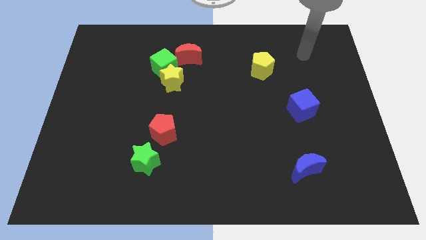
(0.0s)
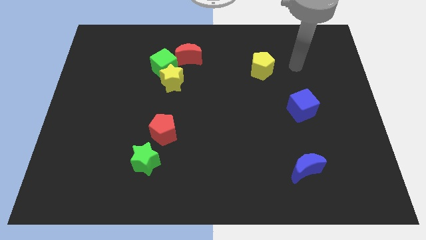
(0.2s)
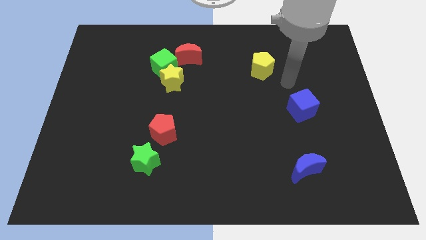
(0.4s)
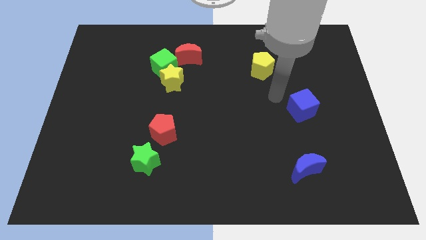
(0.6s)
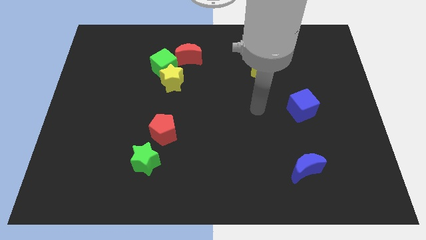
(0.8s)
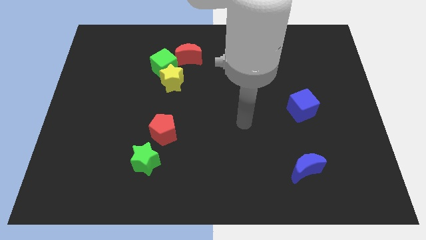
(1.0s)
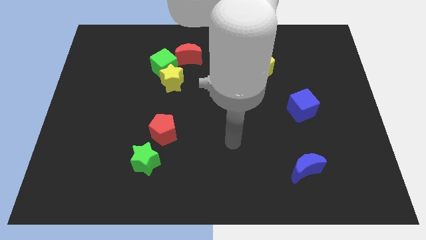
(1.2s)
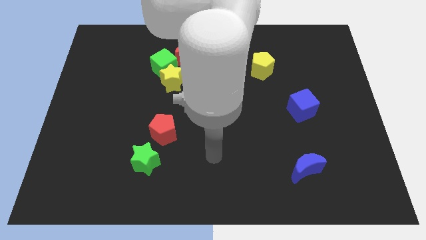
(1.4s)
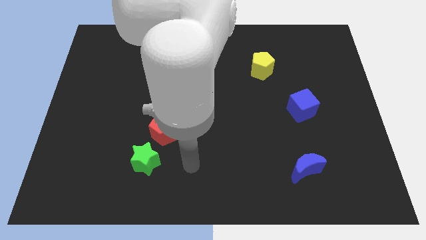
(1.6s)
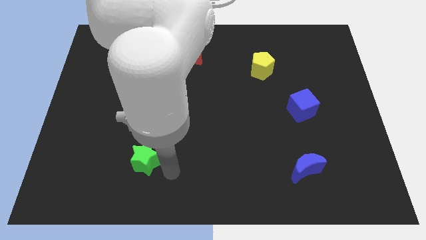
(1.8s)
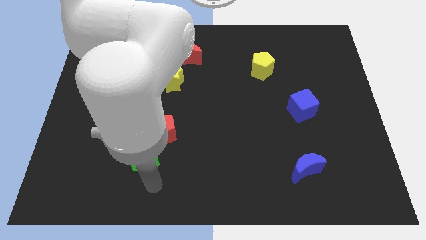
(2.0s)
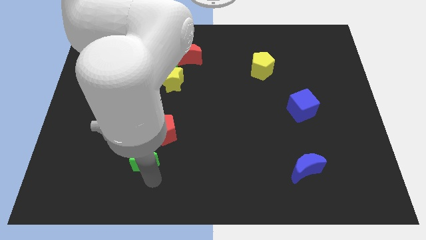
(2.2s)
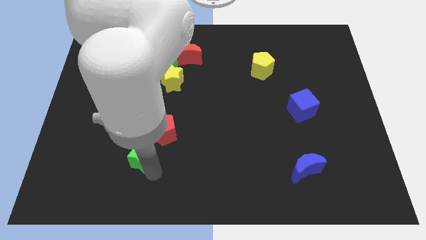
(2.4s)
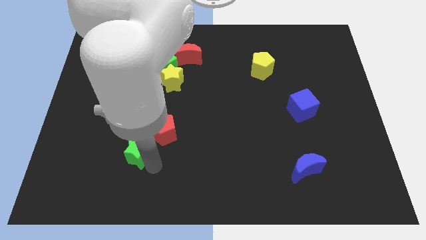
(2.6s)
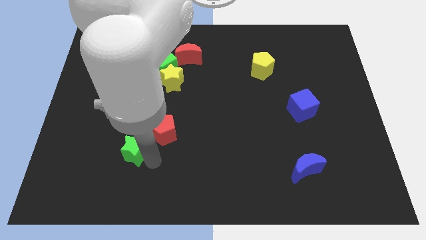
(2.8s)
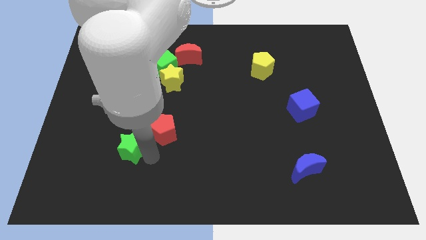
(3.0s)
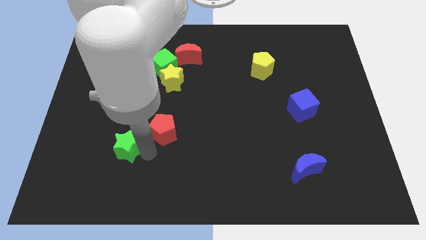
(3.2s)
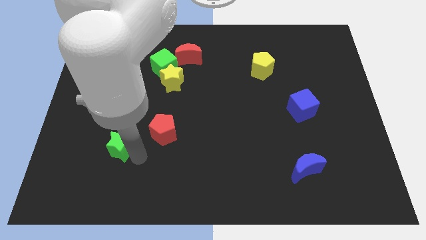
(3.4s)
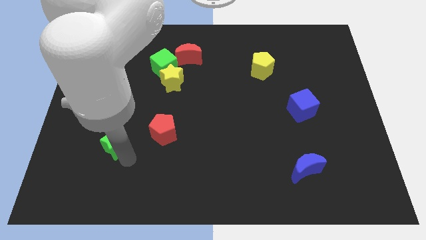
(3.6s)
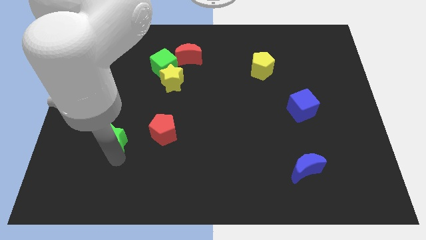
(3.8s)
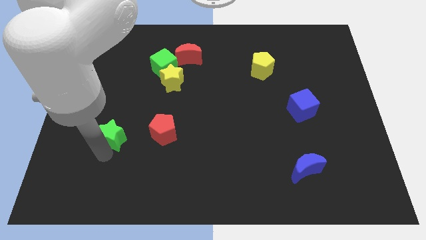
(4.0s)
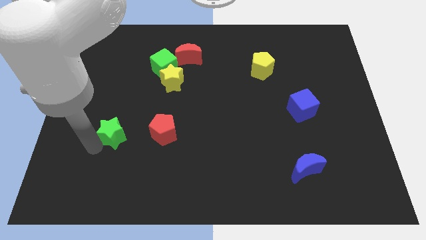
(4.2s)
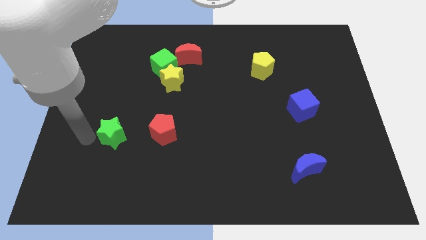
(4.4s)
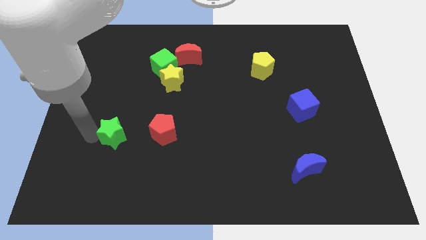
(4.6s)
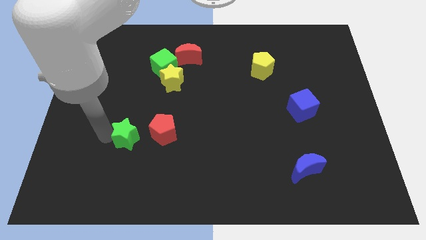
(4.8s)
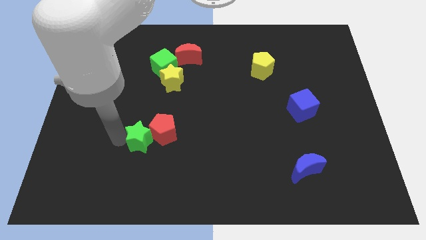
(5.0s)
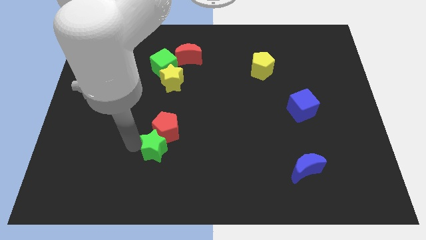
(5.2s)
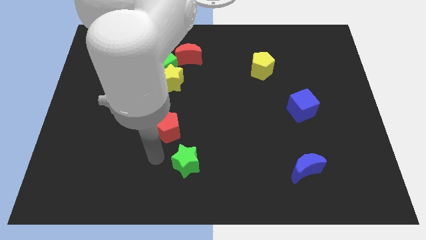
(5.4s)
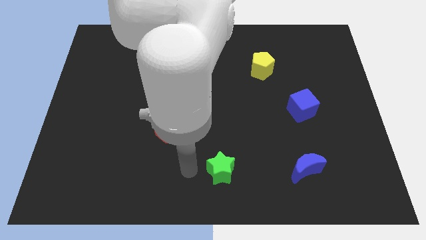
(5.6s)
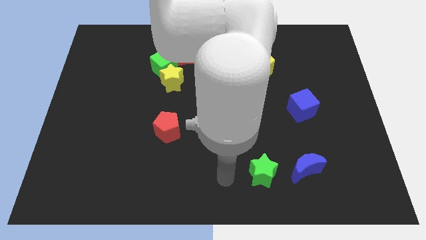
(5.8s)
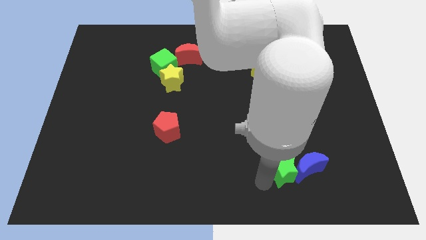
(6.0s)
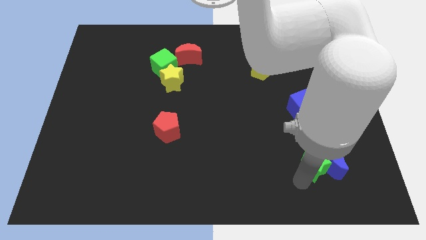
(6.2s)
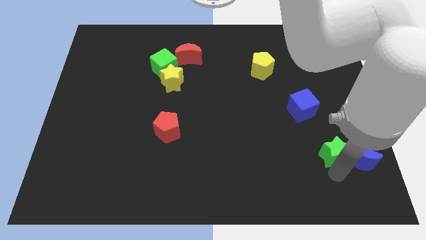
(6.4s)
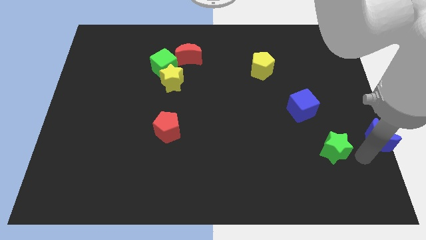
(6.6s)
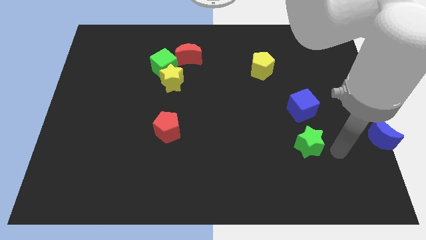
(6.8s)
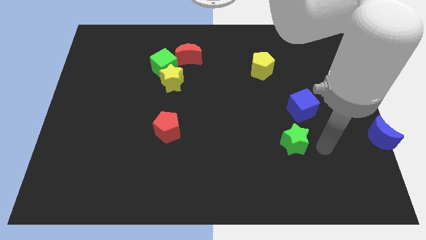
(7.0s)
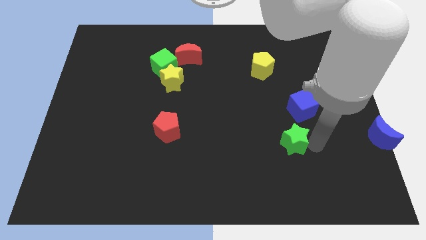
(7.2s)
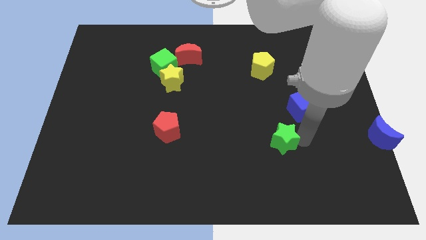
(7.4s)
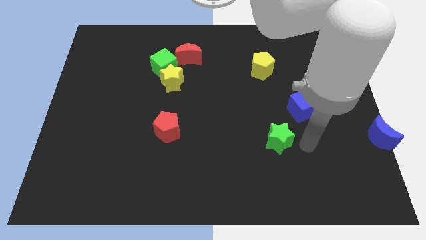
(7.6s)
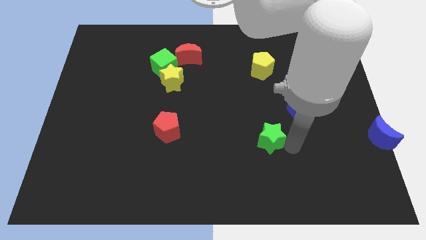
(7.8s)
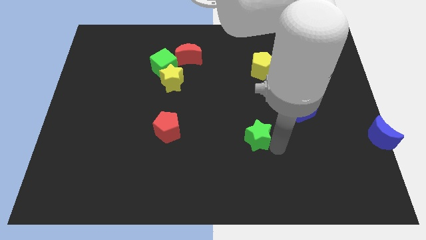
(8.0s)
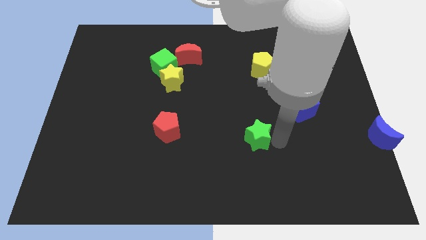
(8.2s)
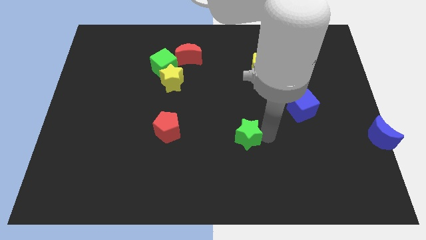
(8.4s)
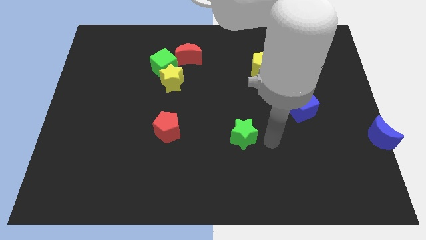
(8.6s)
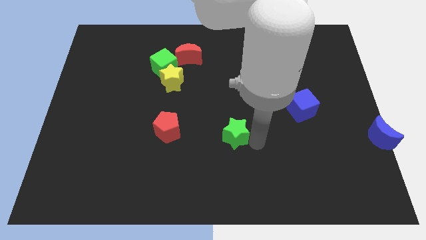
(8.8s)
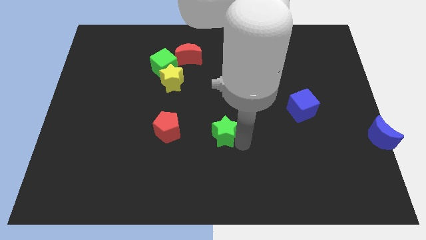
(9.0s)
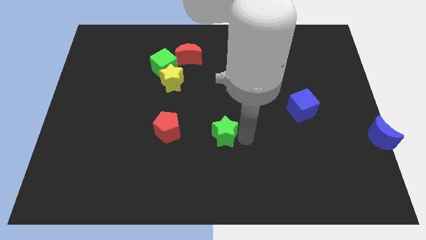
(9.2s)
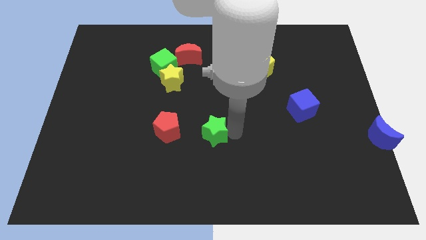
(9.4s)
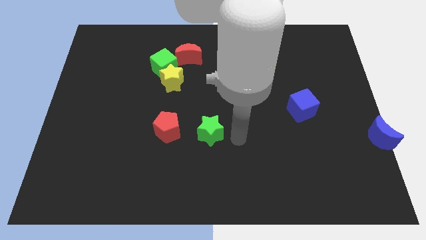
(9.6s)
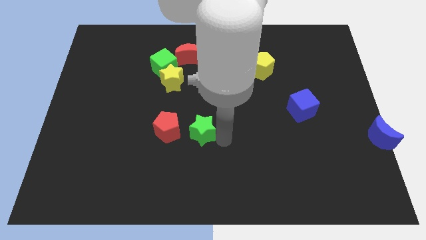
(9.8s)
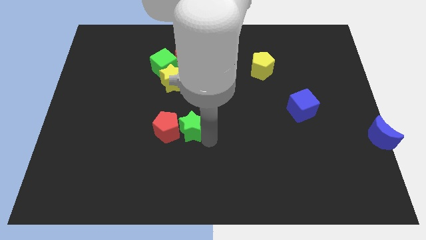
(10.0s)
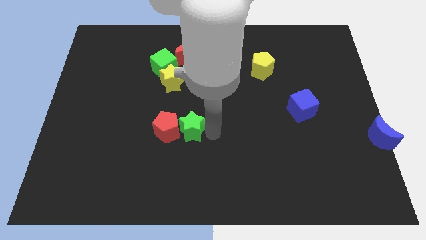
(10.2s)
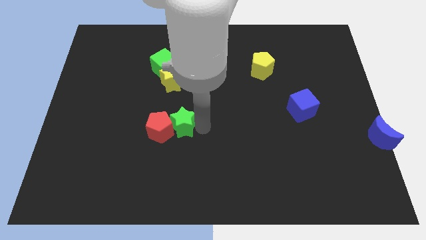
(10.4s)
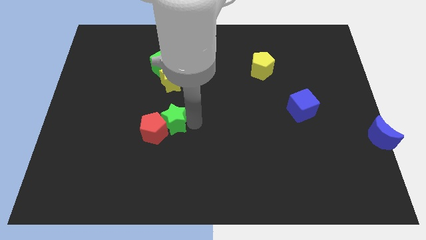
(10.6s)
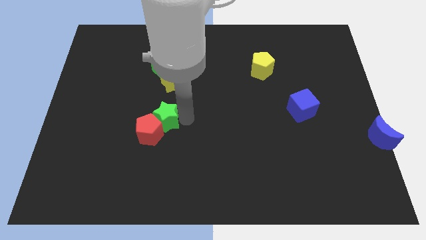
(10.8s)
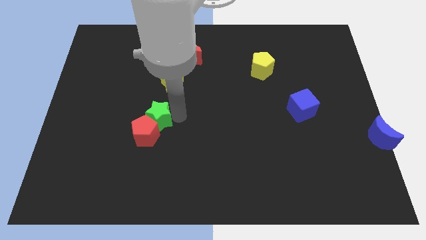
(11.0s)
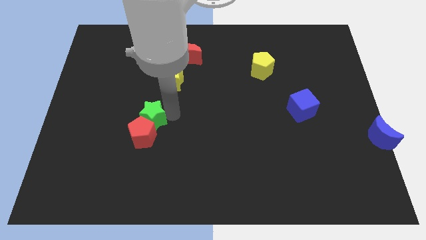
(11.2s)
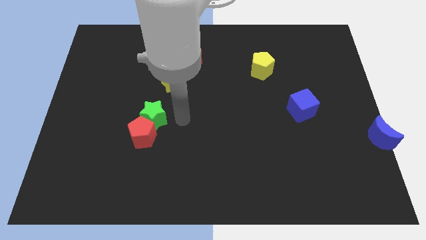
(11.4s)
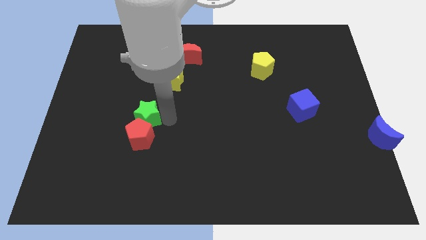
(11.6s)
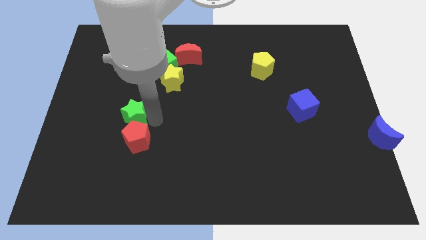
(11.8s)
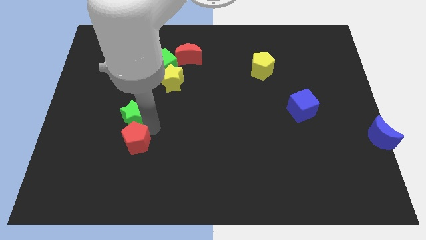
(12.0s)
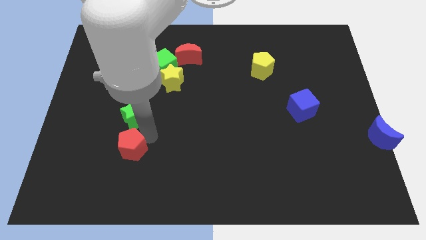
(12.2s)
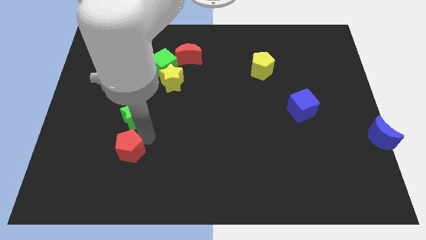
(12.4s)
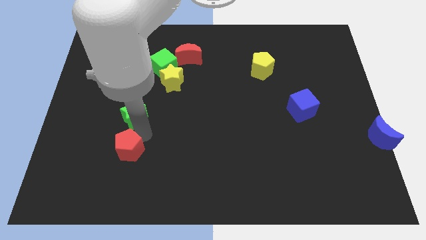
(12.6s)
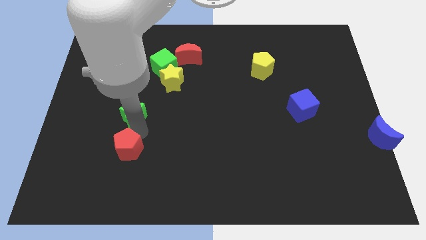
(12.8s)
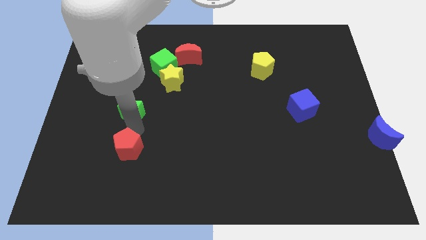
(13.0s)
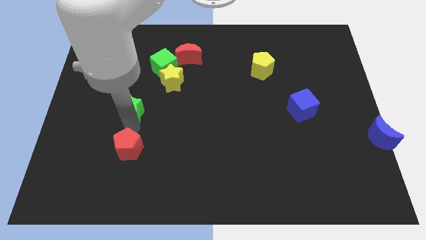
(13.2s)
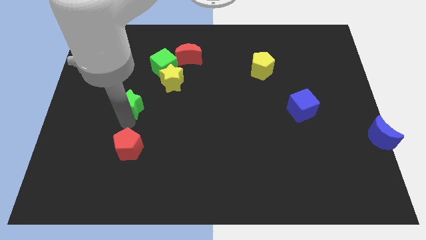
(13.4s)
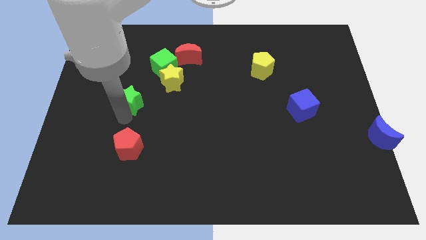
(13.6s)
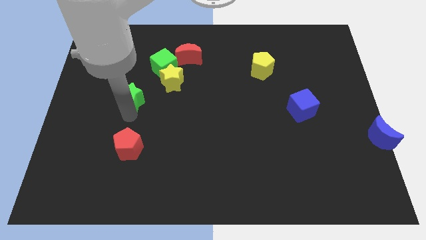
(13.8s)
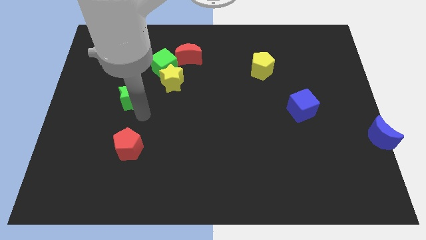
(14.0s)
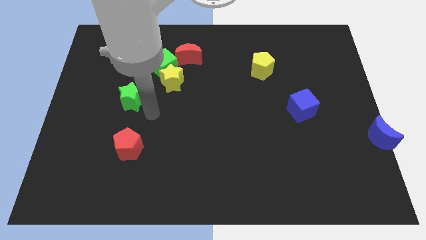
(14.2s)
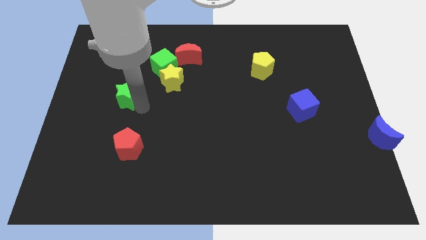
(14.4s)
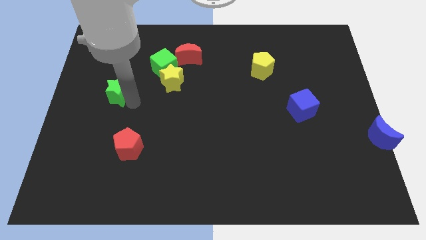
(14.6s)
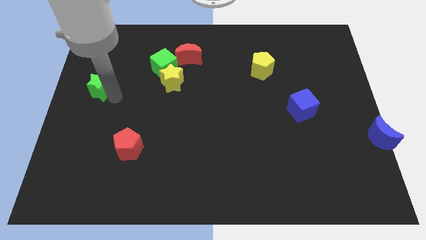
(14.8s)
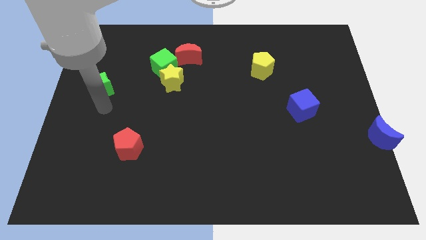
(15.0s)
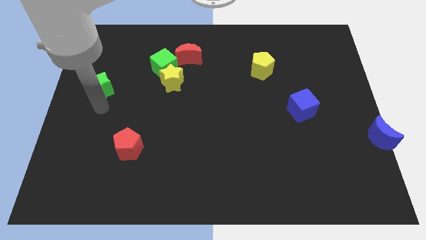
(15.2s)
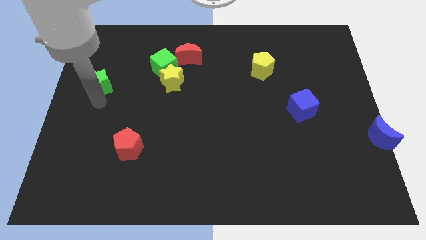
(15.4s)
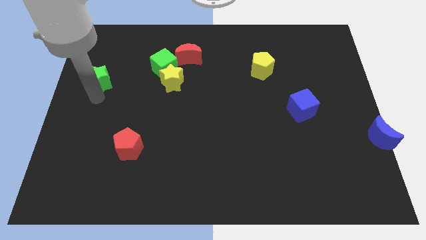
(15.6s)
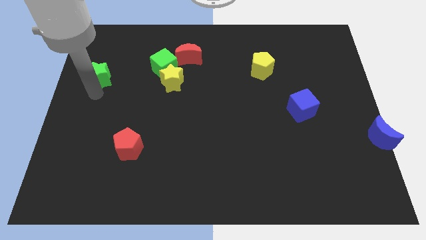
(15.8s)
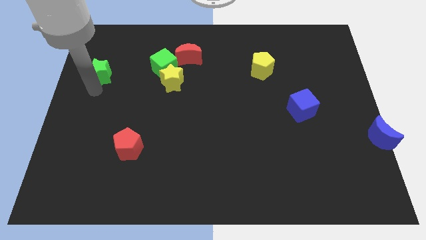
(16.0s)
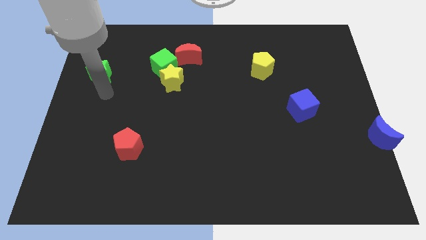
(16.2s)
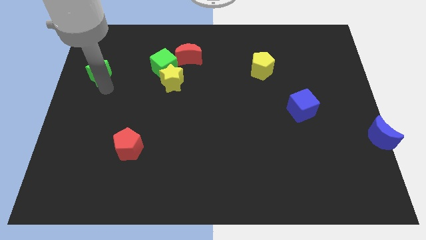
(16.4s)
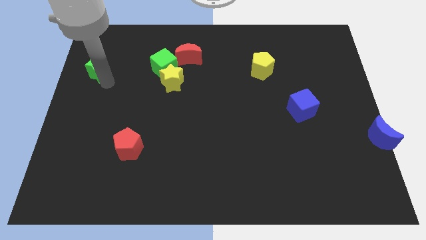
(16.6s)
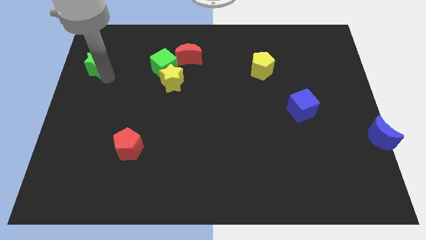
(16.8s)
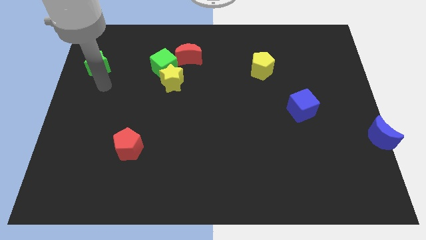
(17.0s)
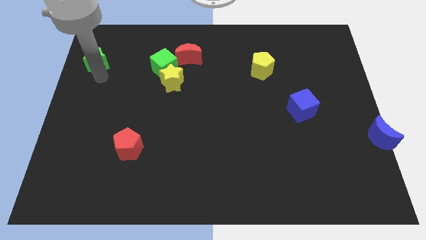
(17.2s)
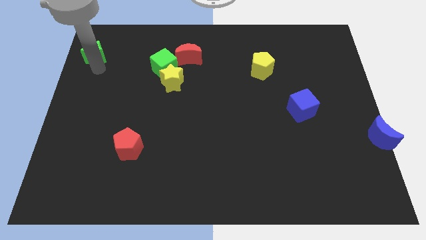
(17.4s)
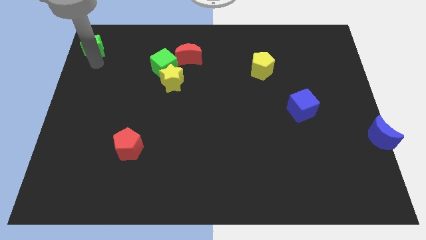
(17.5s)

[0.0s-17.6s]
put the green star to the top left
